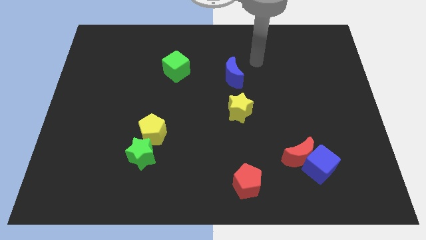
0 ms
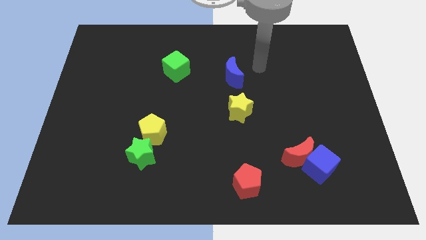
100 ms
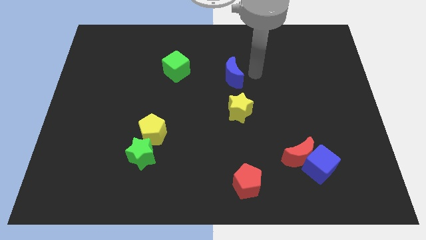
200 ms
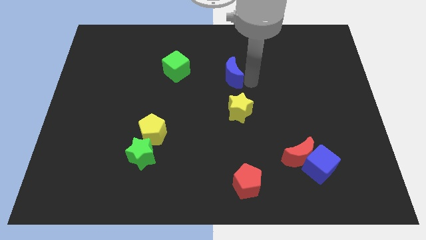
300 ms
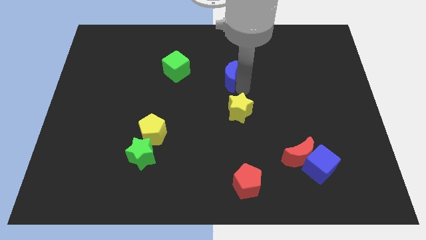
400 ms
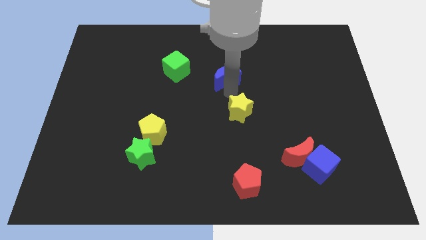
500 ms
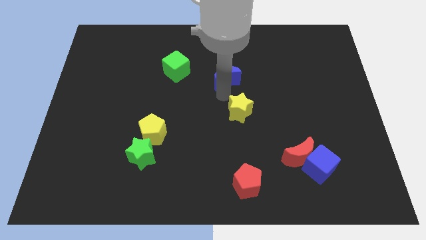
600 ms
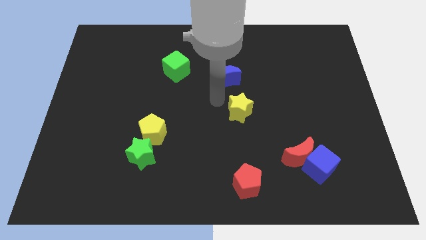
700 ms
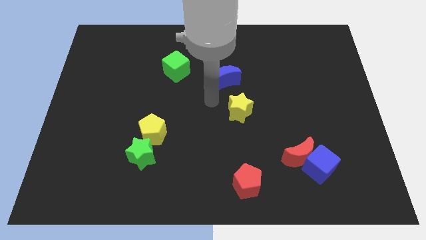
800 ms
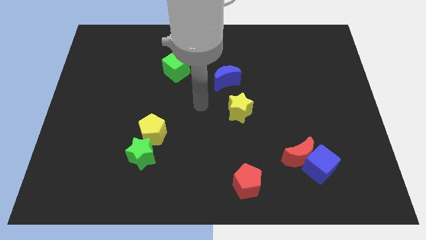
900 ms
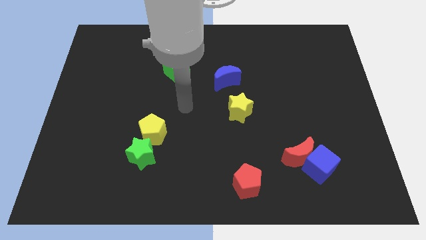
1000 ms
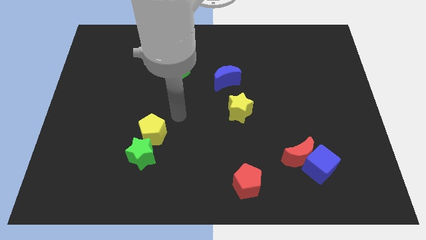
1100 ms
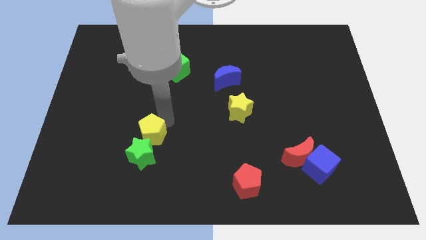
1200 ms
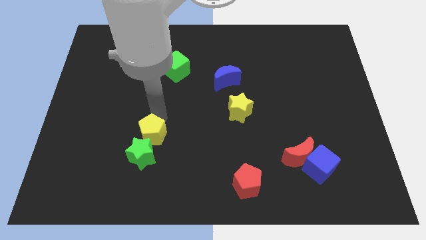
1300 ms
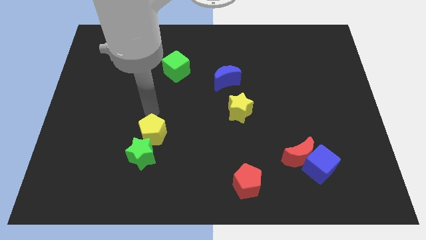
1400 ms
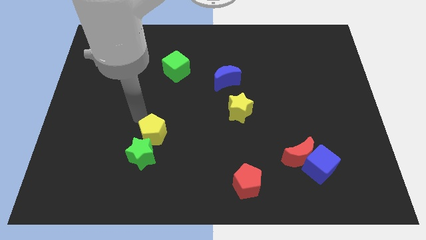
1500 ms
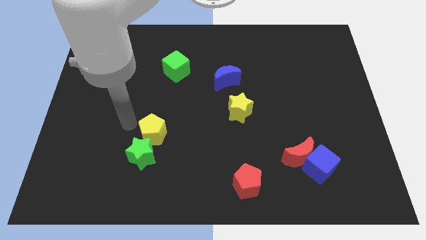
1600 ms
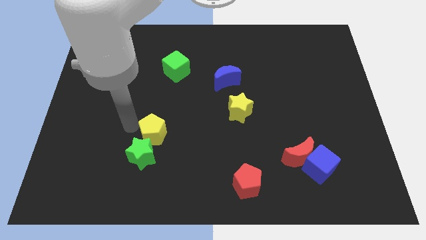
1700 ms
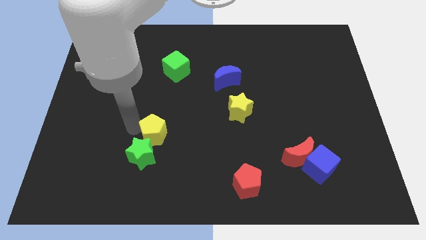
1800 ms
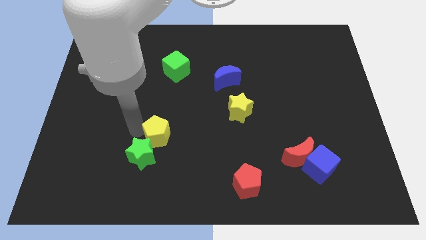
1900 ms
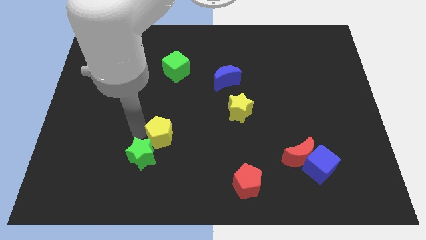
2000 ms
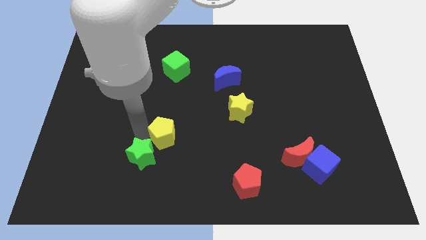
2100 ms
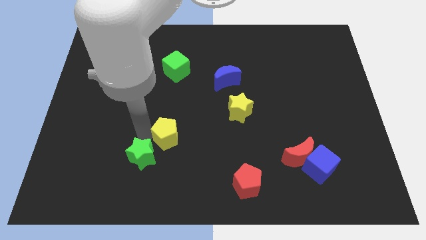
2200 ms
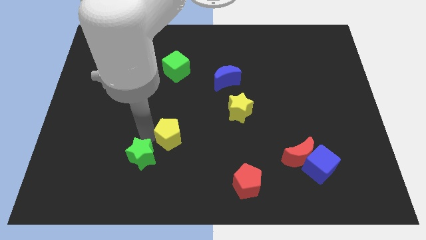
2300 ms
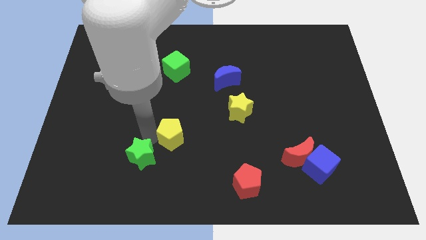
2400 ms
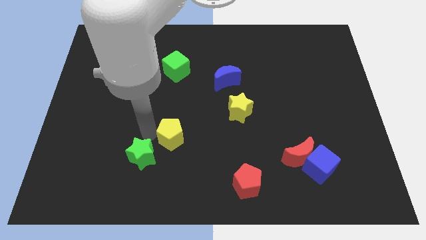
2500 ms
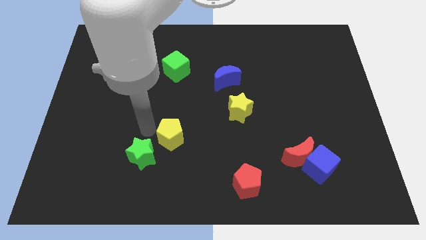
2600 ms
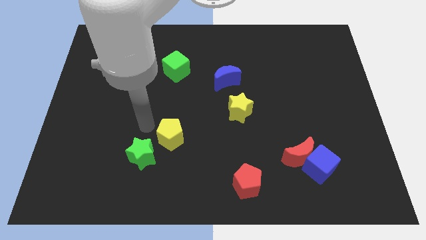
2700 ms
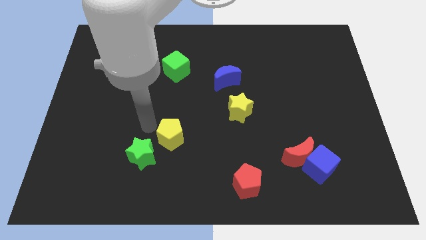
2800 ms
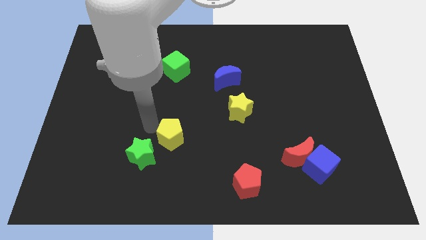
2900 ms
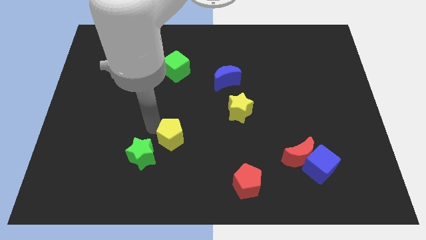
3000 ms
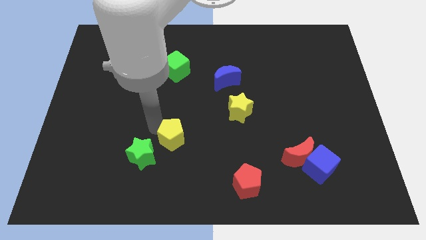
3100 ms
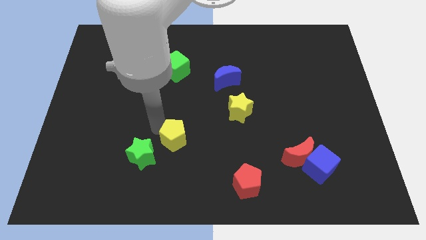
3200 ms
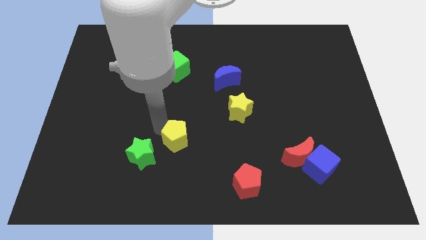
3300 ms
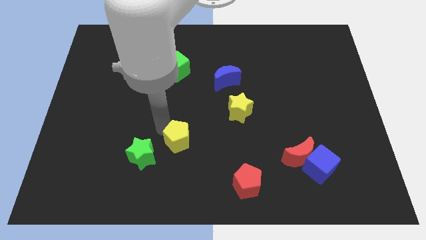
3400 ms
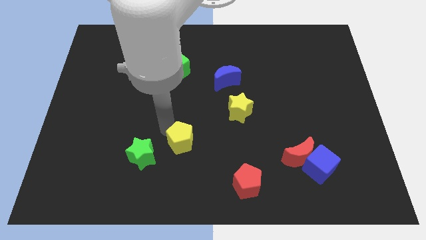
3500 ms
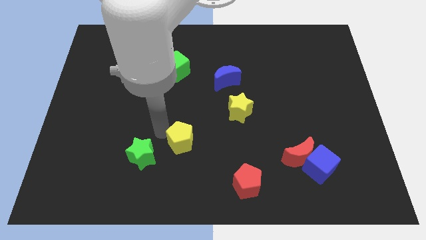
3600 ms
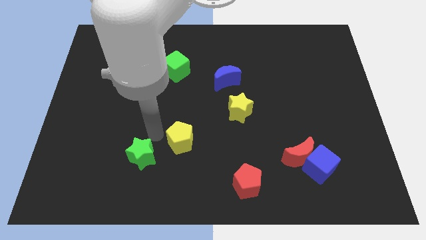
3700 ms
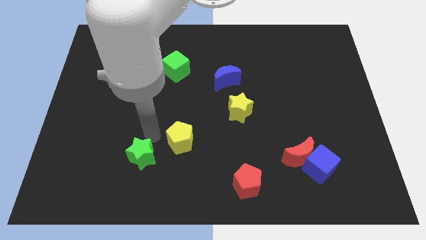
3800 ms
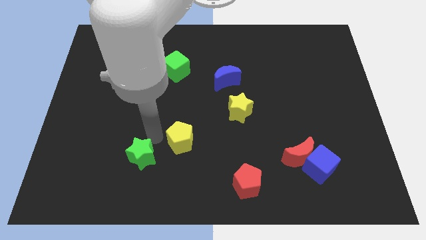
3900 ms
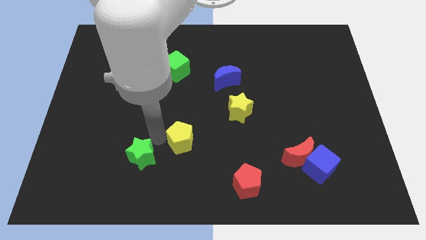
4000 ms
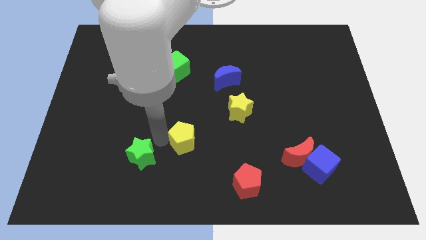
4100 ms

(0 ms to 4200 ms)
slightly slide the yellow pentagon to the right

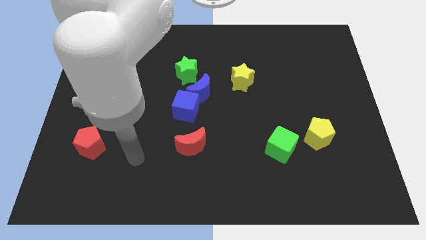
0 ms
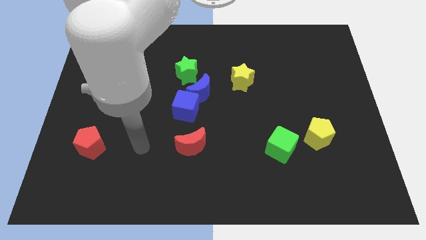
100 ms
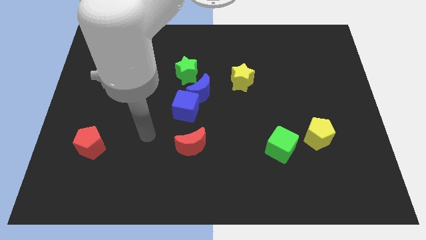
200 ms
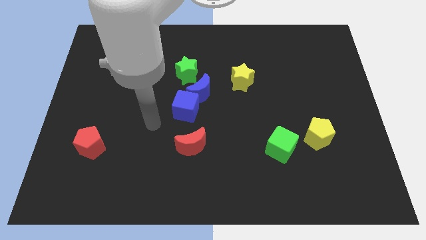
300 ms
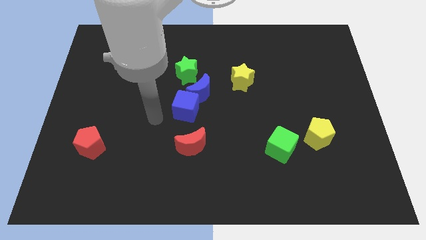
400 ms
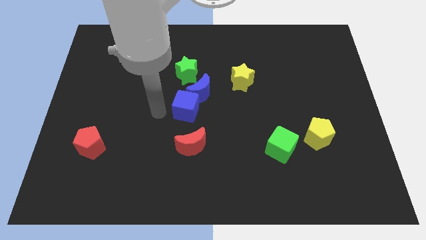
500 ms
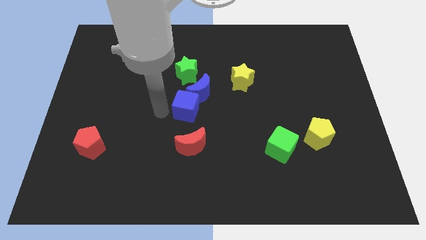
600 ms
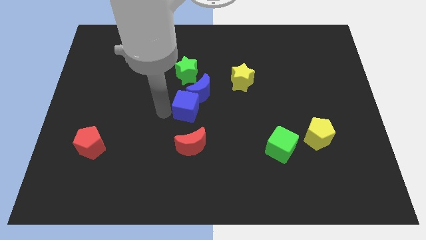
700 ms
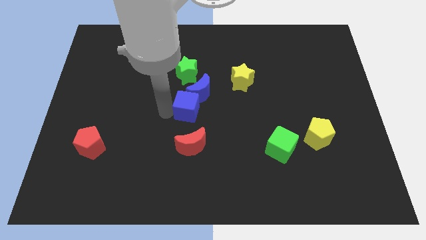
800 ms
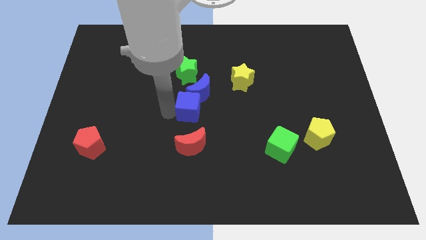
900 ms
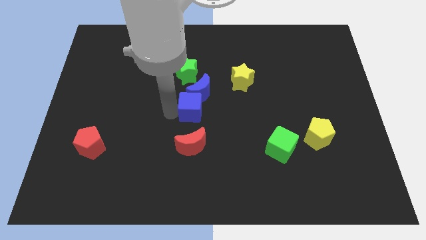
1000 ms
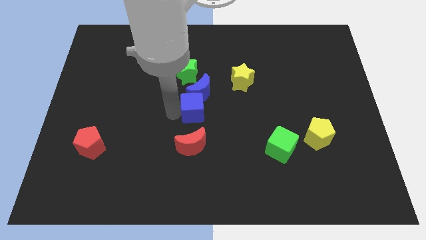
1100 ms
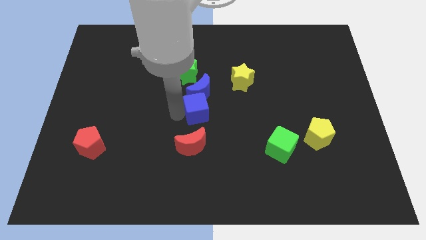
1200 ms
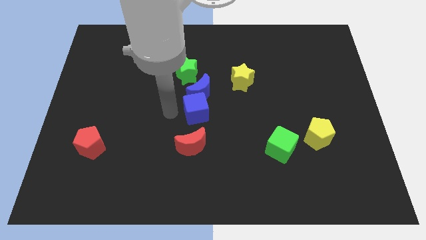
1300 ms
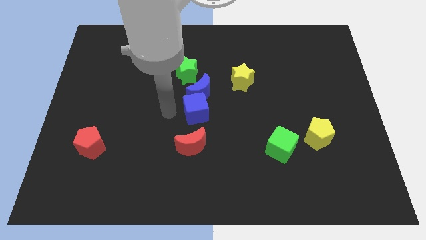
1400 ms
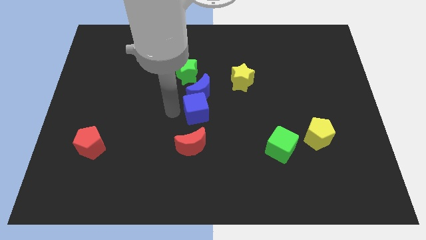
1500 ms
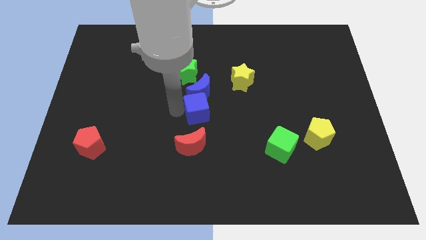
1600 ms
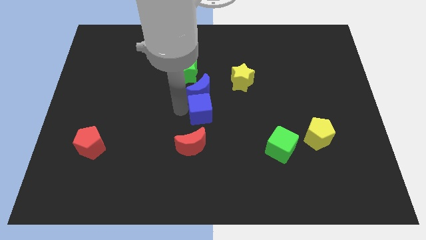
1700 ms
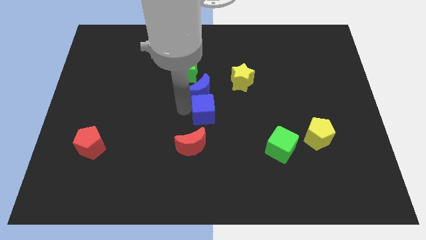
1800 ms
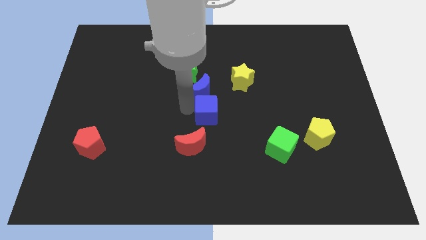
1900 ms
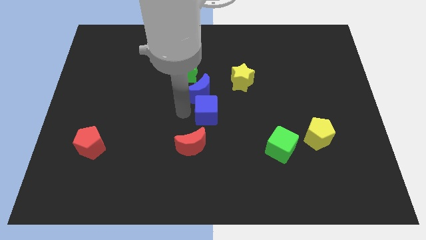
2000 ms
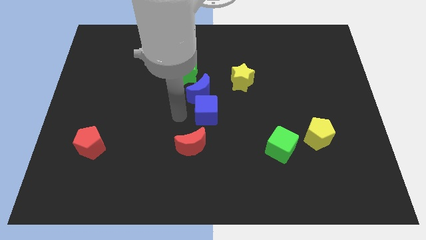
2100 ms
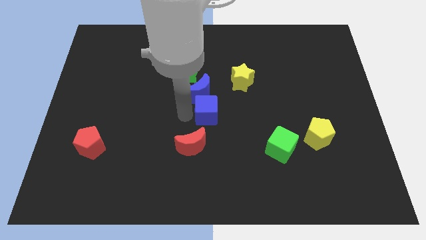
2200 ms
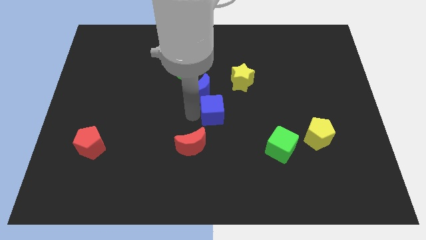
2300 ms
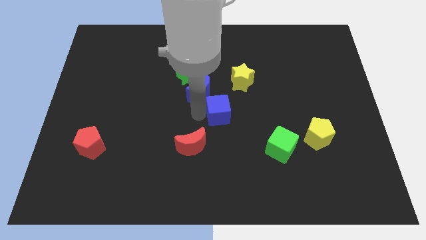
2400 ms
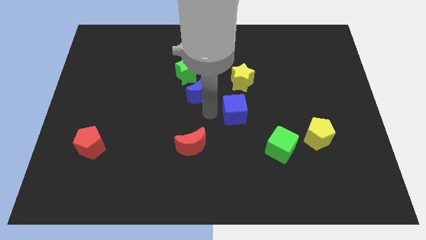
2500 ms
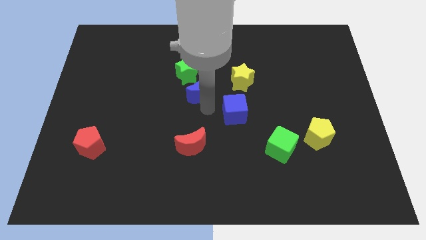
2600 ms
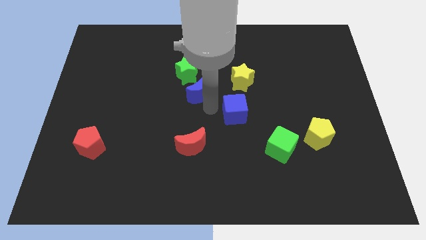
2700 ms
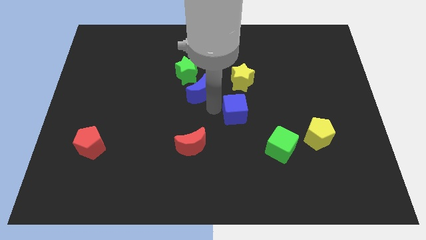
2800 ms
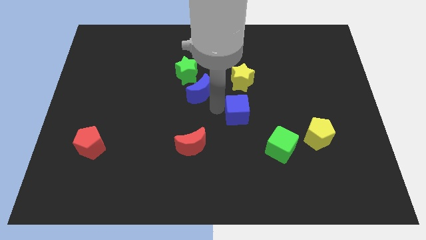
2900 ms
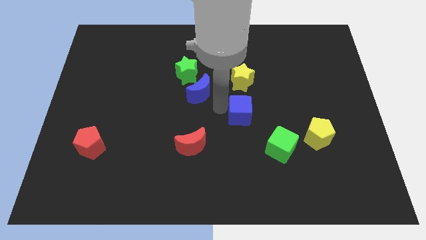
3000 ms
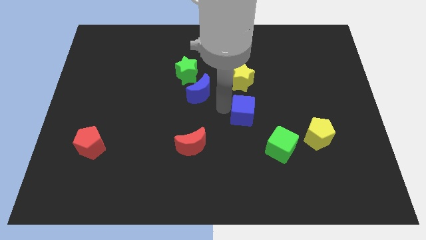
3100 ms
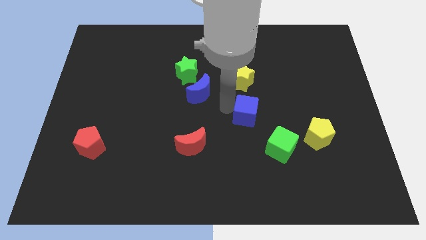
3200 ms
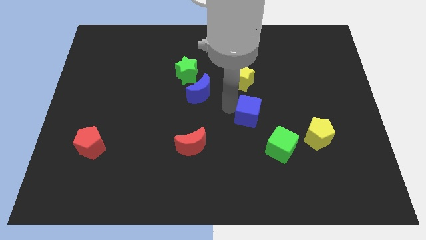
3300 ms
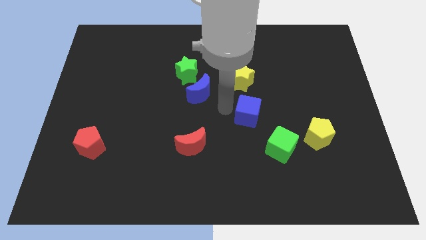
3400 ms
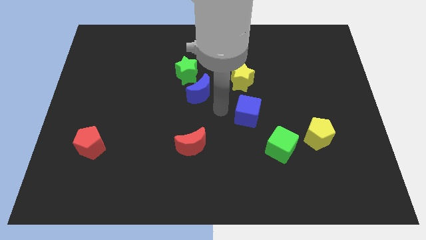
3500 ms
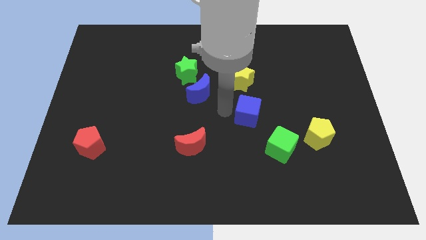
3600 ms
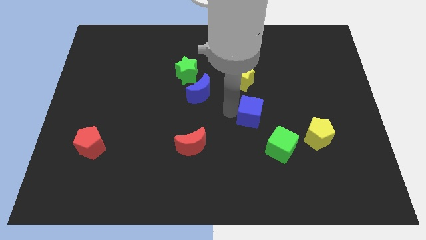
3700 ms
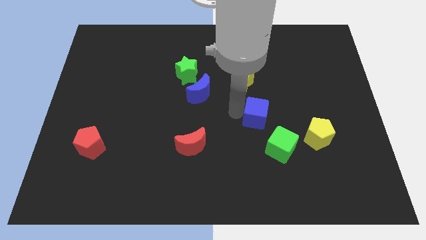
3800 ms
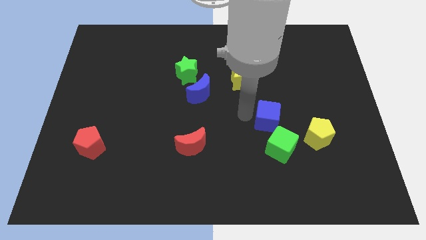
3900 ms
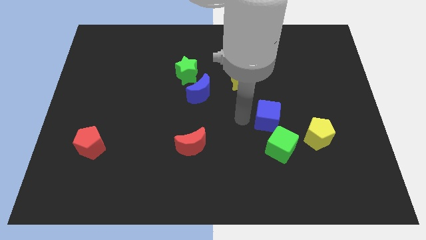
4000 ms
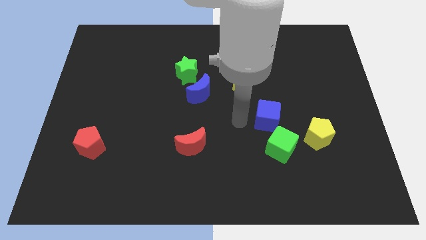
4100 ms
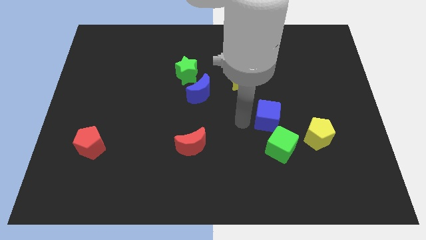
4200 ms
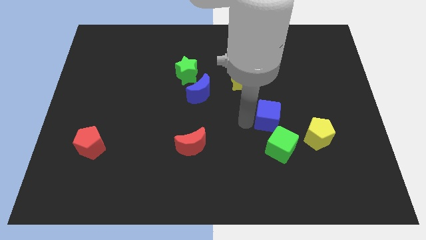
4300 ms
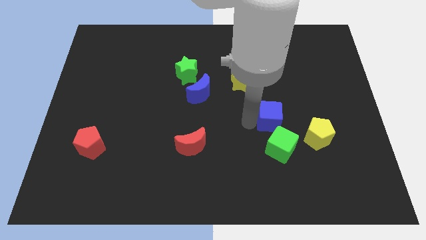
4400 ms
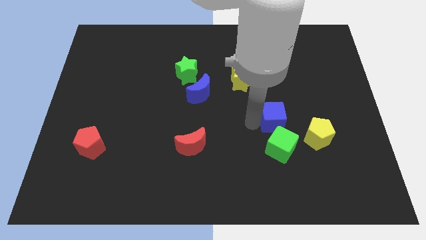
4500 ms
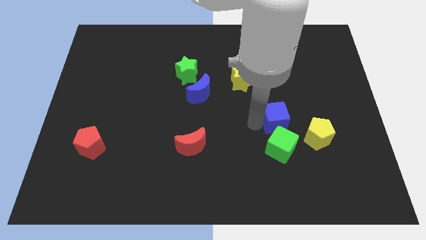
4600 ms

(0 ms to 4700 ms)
push the blue cube right
